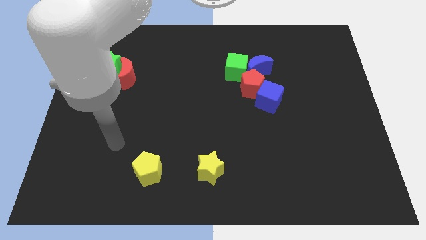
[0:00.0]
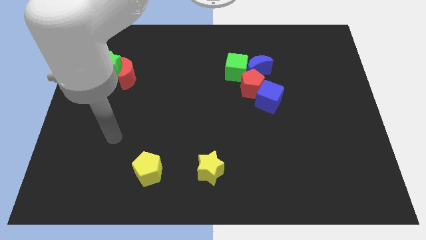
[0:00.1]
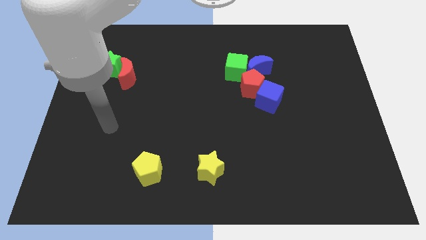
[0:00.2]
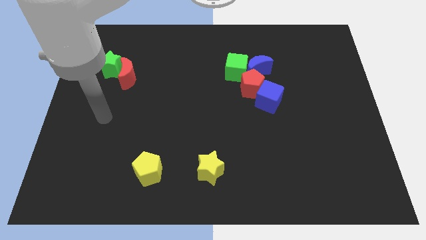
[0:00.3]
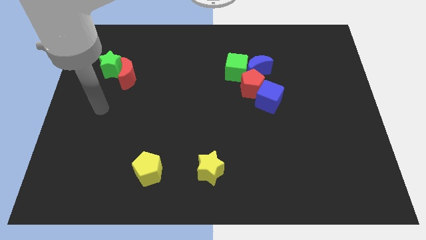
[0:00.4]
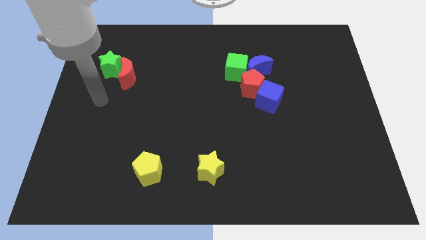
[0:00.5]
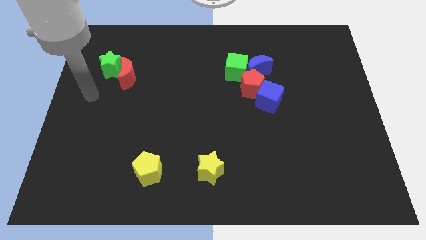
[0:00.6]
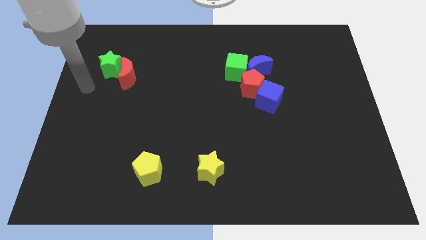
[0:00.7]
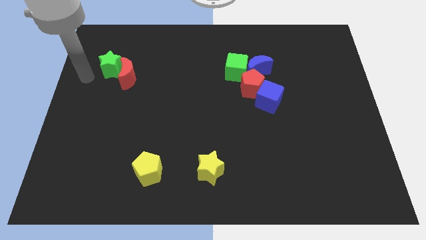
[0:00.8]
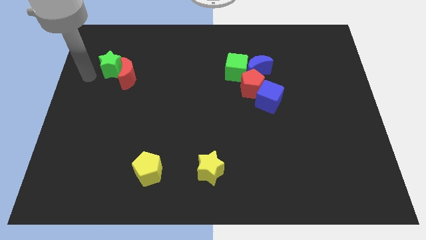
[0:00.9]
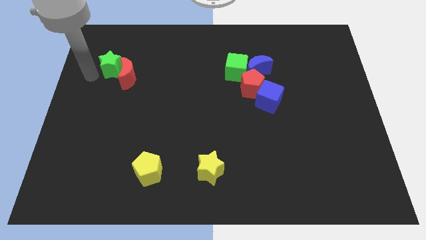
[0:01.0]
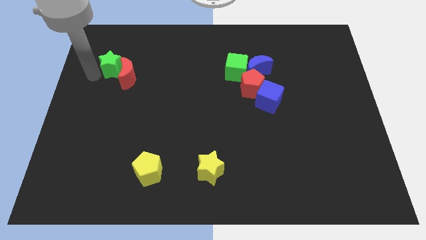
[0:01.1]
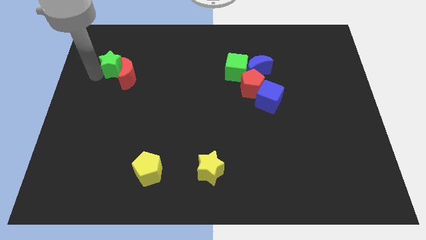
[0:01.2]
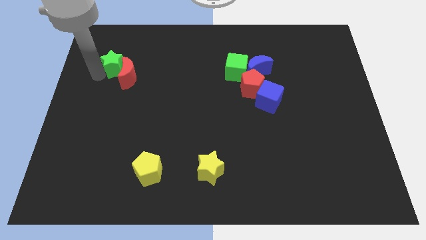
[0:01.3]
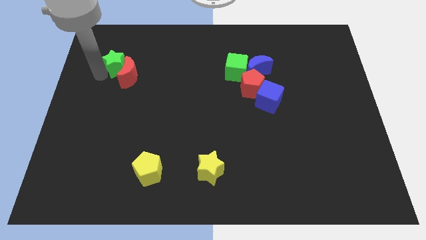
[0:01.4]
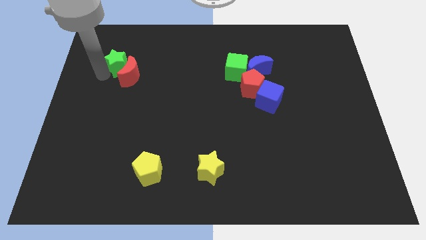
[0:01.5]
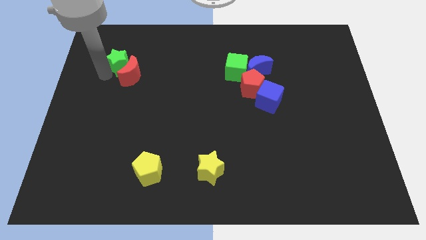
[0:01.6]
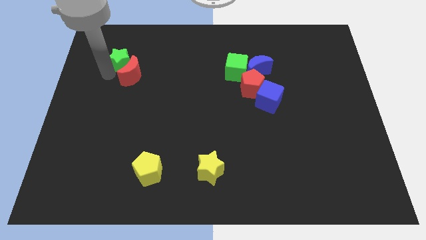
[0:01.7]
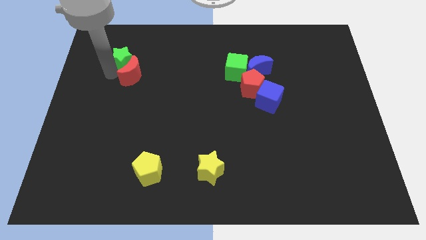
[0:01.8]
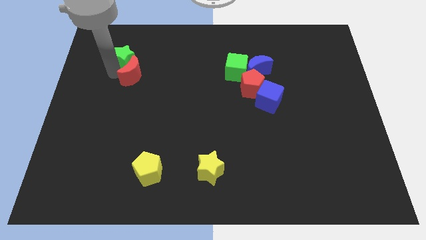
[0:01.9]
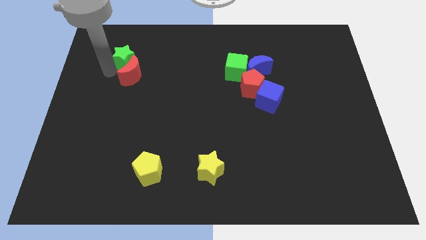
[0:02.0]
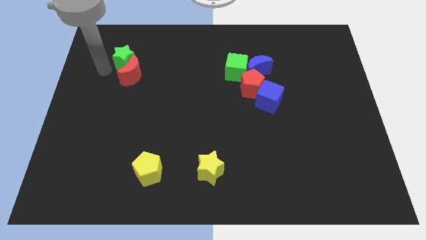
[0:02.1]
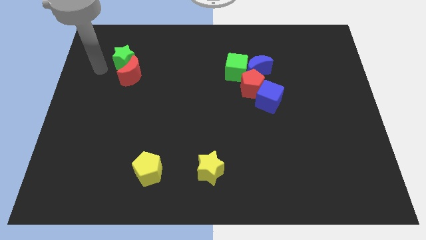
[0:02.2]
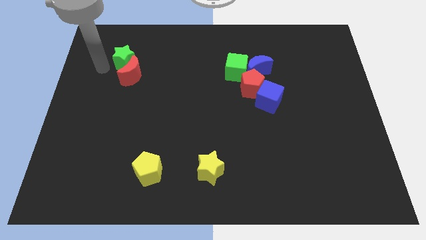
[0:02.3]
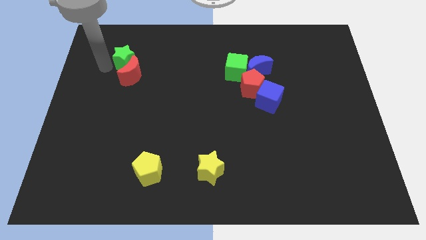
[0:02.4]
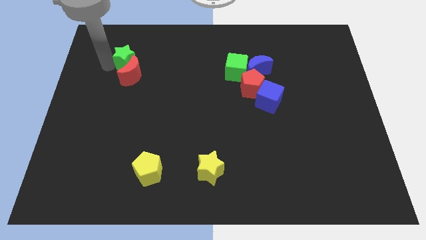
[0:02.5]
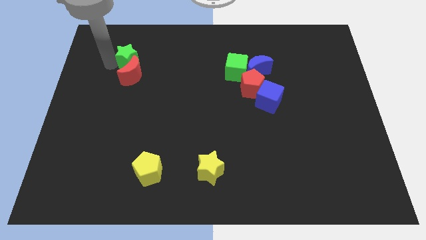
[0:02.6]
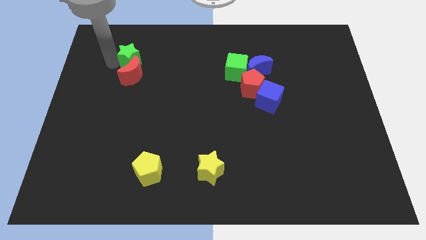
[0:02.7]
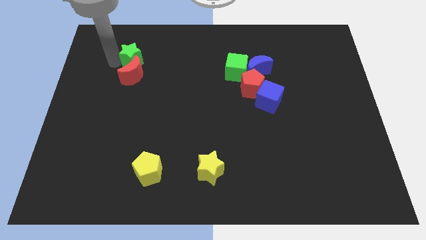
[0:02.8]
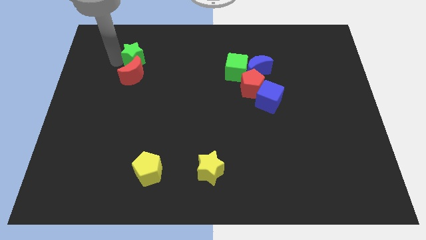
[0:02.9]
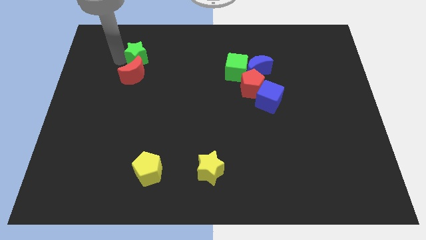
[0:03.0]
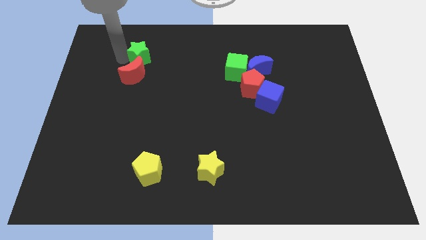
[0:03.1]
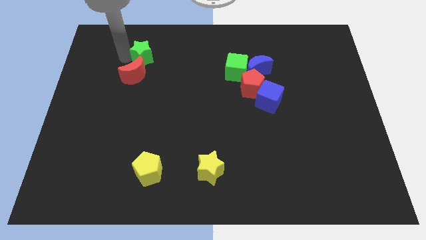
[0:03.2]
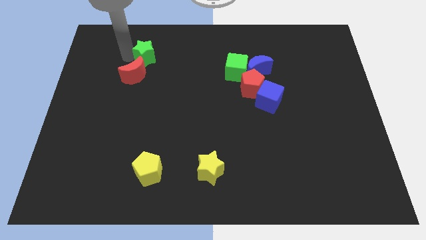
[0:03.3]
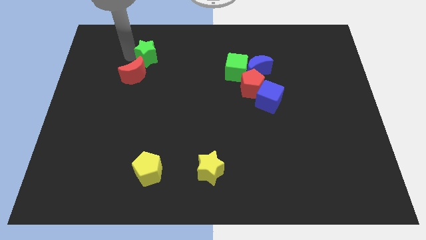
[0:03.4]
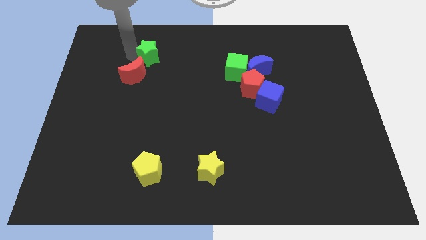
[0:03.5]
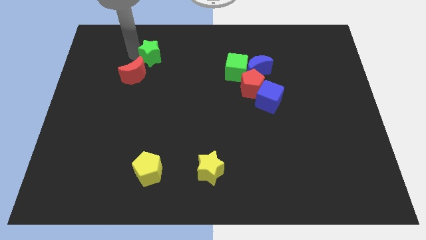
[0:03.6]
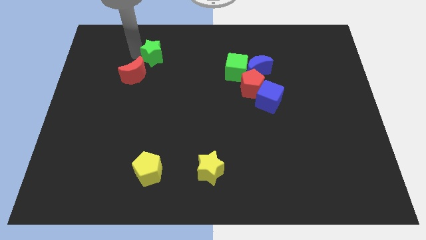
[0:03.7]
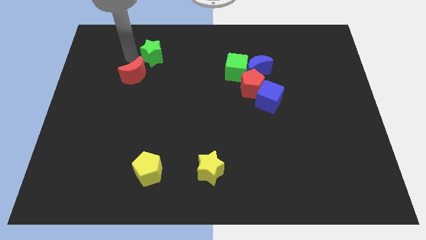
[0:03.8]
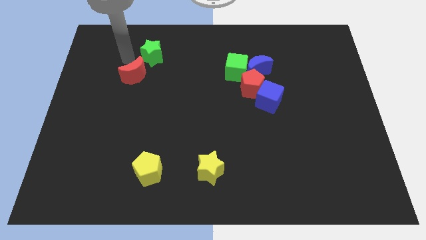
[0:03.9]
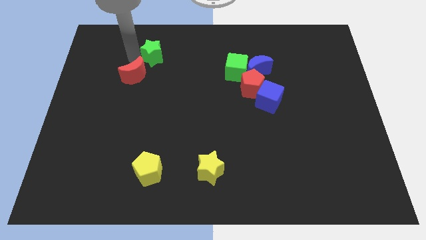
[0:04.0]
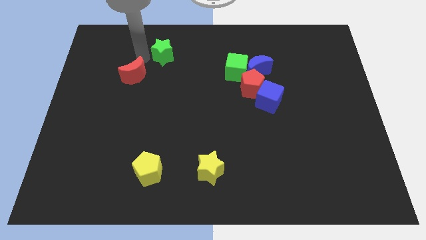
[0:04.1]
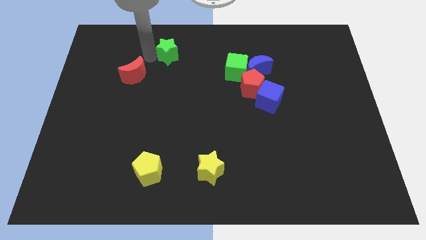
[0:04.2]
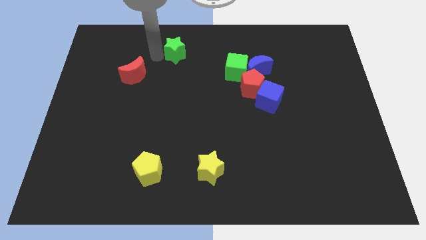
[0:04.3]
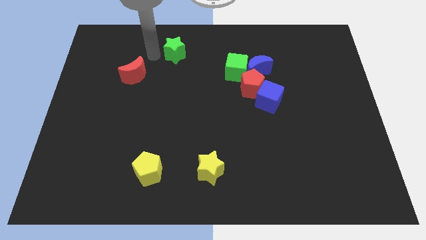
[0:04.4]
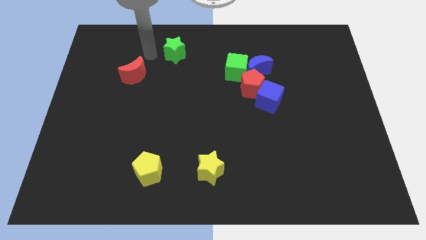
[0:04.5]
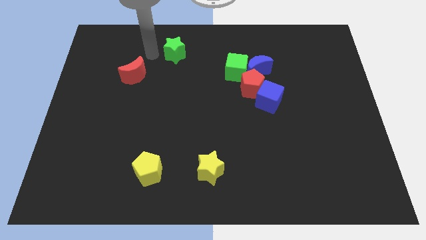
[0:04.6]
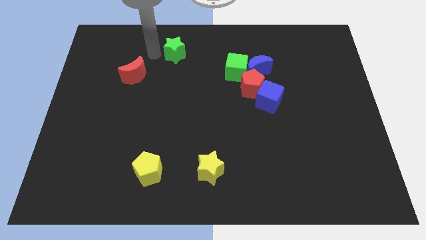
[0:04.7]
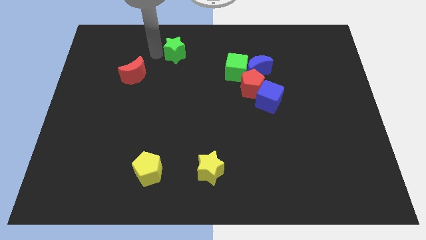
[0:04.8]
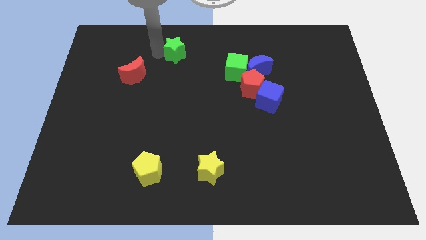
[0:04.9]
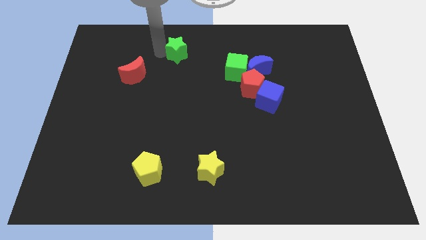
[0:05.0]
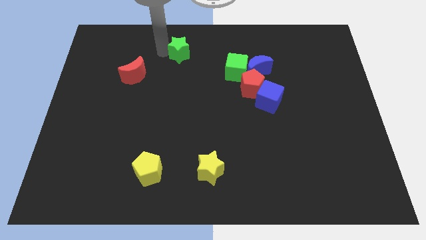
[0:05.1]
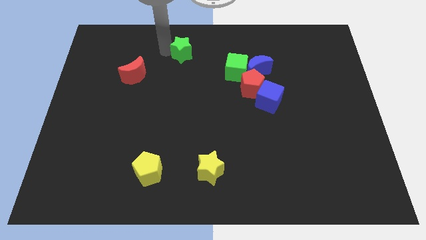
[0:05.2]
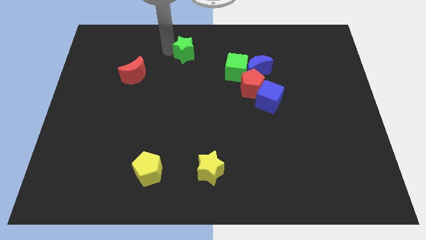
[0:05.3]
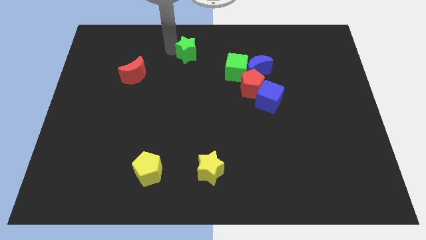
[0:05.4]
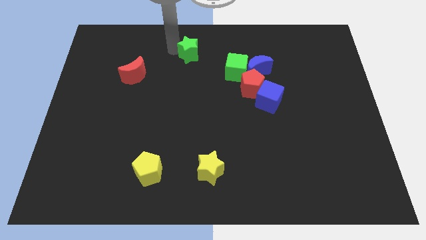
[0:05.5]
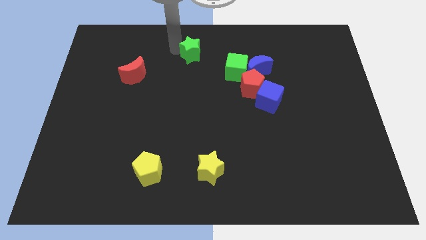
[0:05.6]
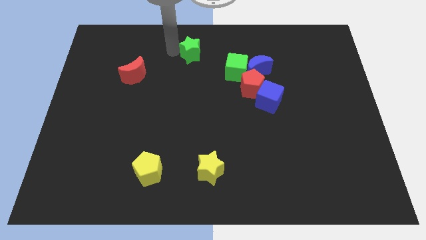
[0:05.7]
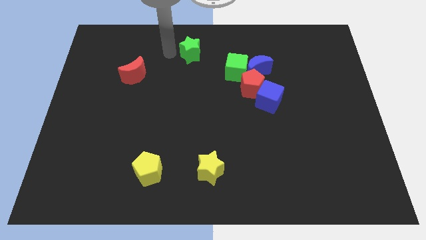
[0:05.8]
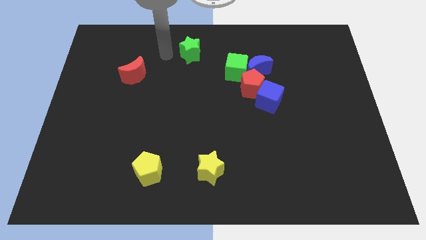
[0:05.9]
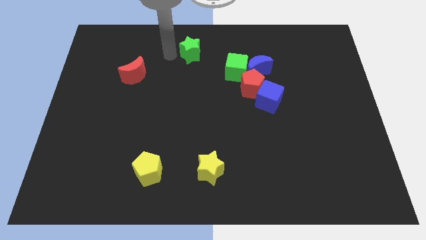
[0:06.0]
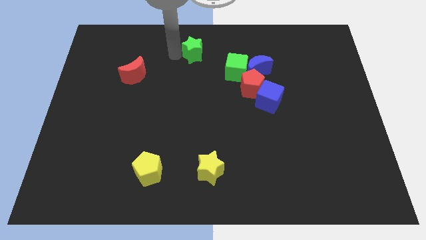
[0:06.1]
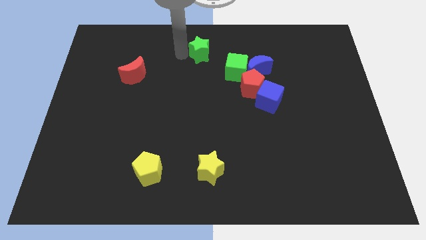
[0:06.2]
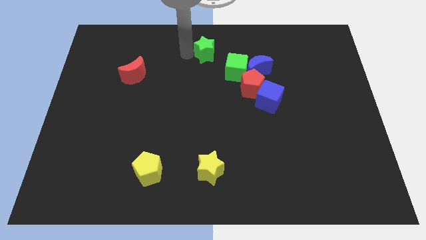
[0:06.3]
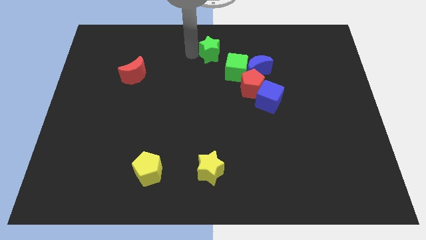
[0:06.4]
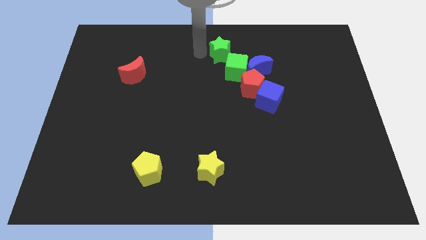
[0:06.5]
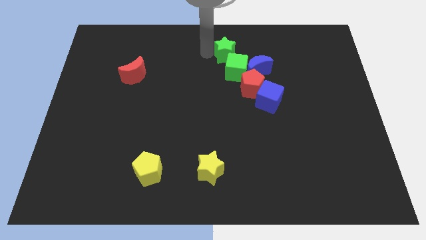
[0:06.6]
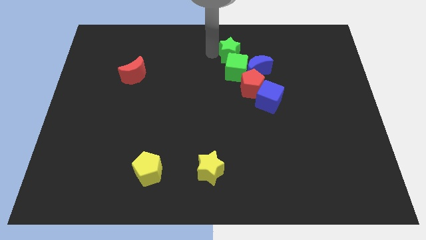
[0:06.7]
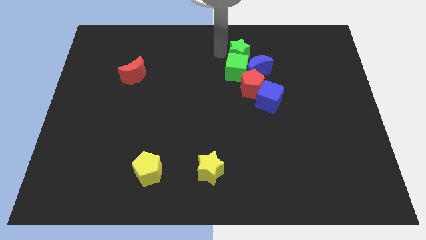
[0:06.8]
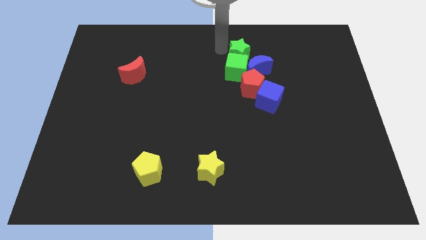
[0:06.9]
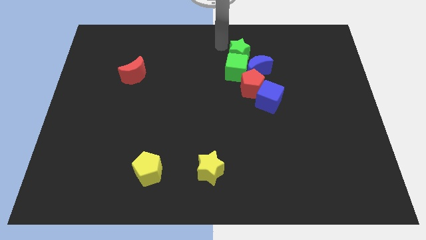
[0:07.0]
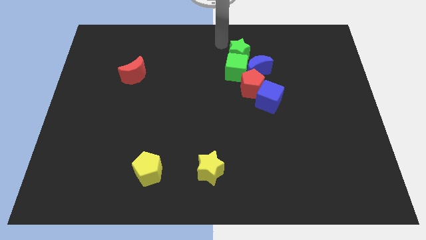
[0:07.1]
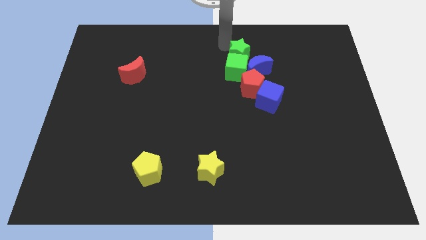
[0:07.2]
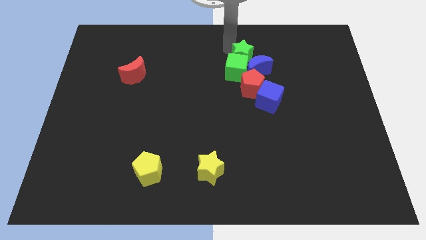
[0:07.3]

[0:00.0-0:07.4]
push the green star next to the blue moon
